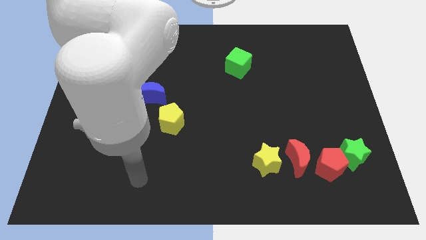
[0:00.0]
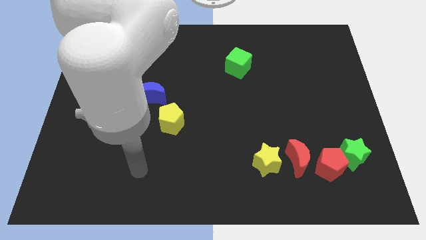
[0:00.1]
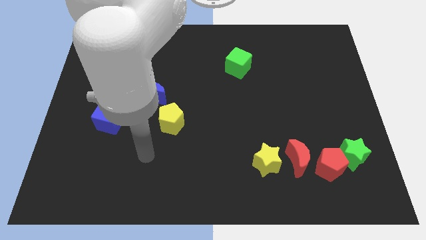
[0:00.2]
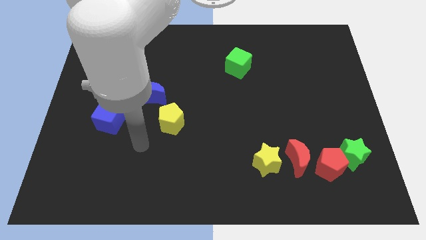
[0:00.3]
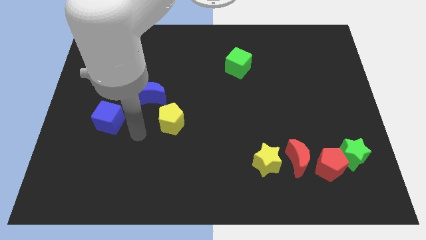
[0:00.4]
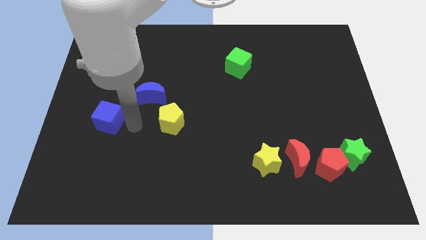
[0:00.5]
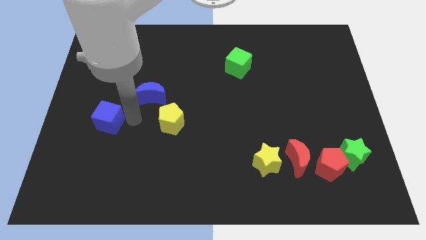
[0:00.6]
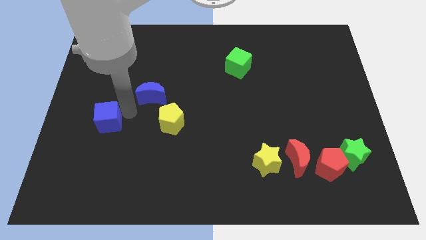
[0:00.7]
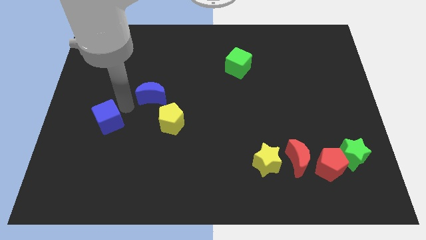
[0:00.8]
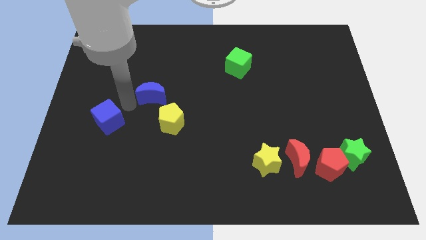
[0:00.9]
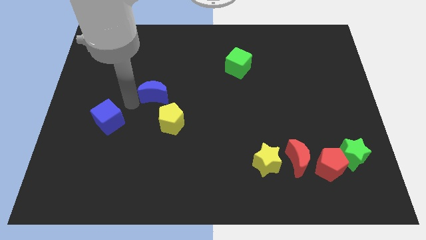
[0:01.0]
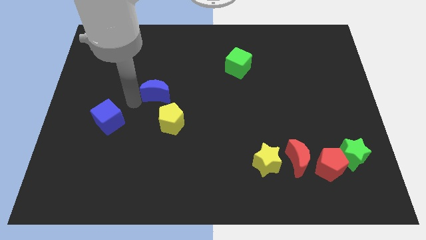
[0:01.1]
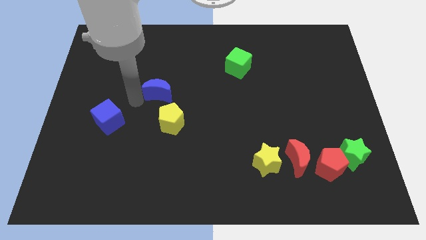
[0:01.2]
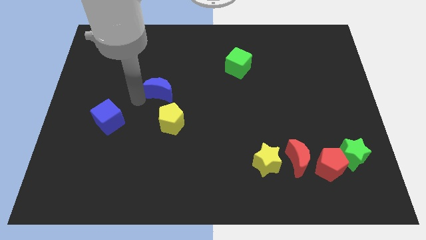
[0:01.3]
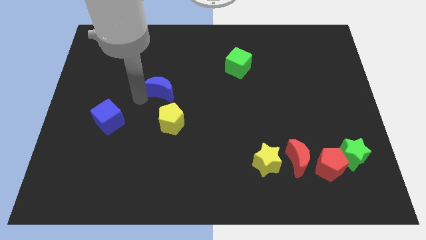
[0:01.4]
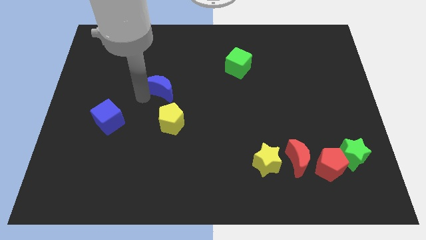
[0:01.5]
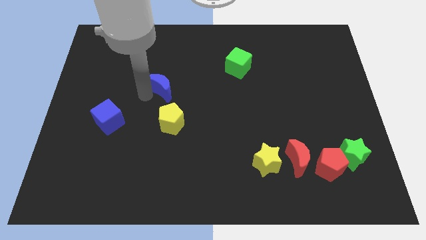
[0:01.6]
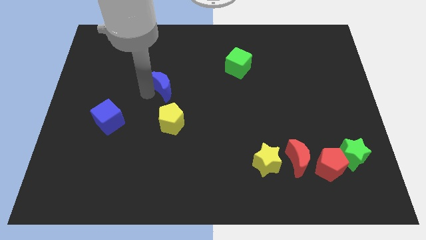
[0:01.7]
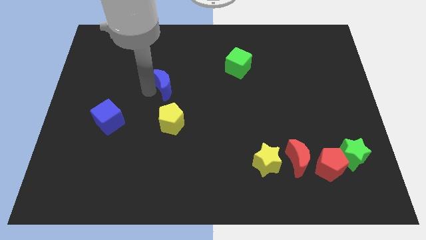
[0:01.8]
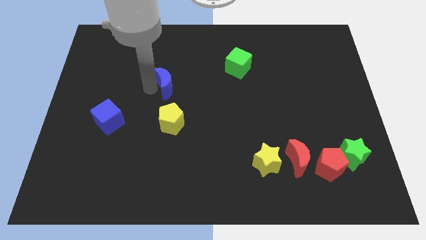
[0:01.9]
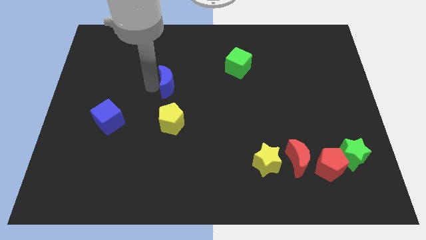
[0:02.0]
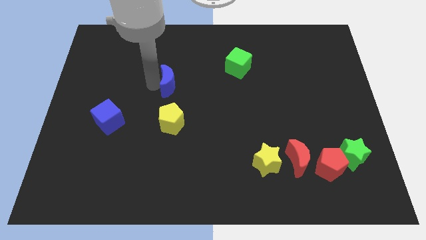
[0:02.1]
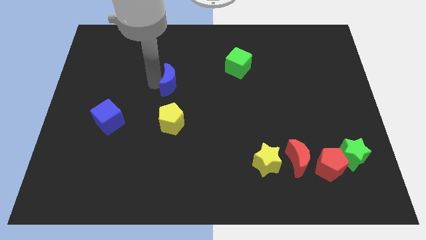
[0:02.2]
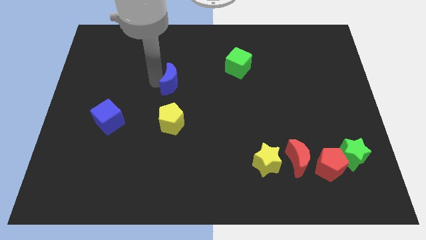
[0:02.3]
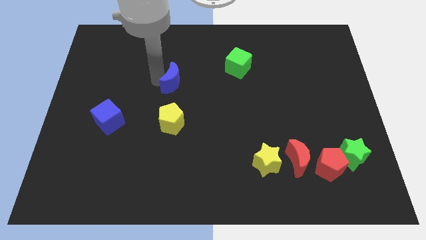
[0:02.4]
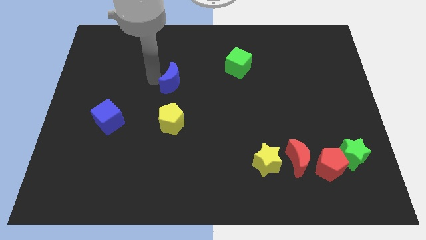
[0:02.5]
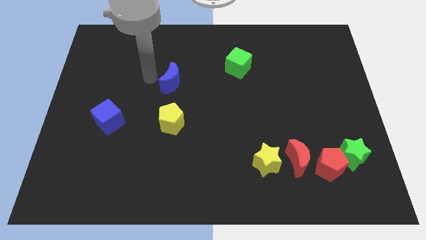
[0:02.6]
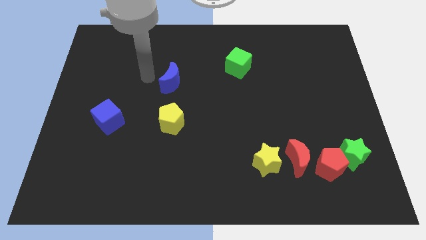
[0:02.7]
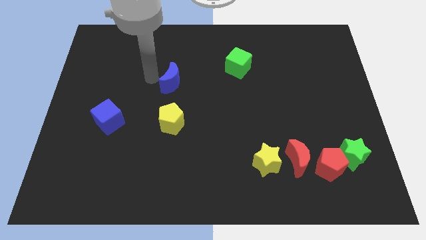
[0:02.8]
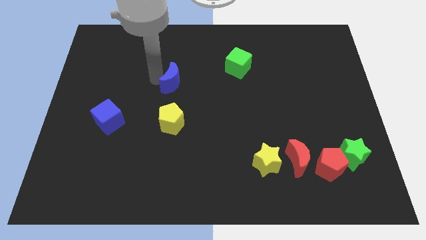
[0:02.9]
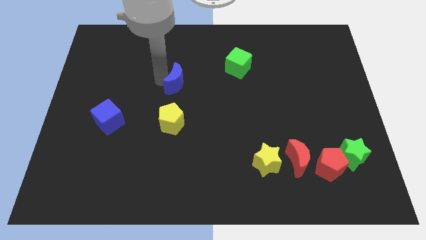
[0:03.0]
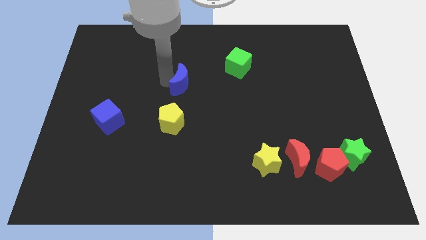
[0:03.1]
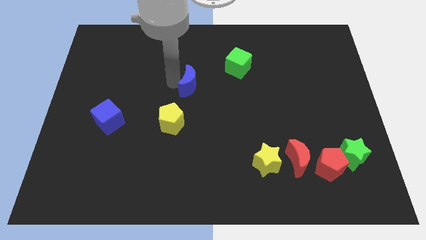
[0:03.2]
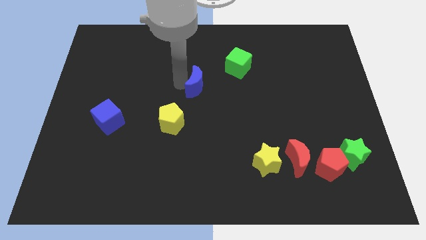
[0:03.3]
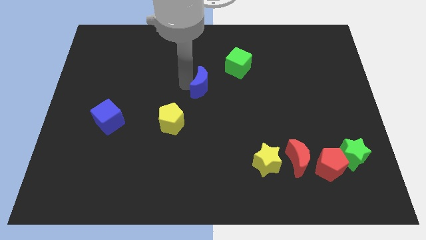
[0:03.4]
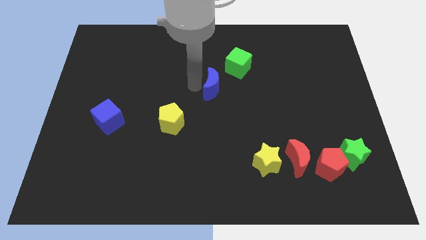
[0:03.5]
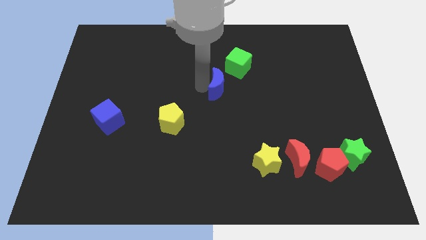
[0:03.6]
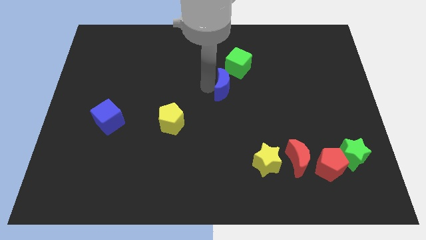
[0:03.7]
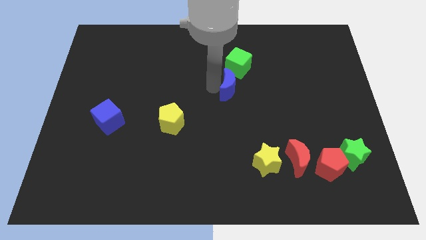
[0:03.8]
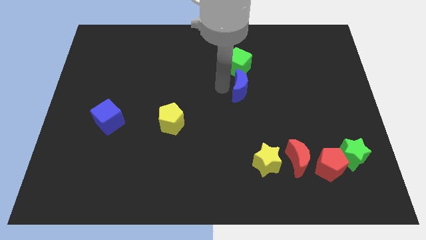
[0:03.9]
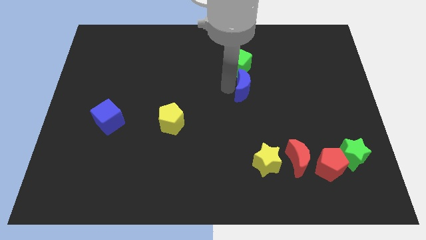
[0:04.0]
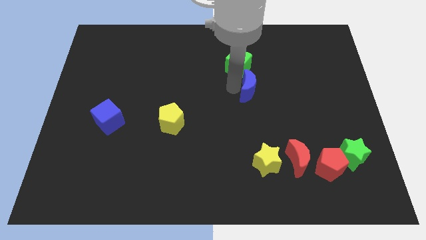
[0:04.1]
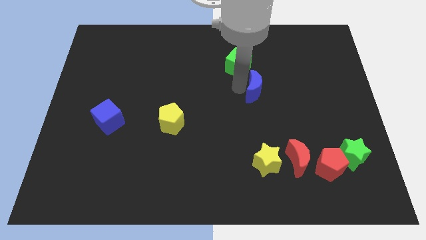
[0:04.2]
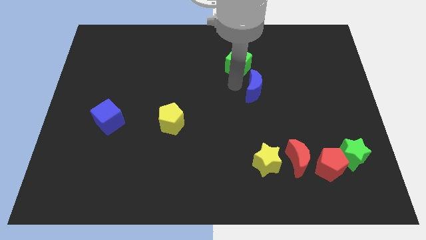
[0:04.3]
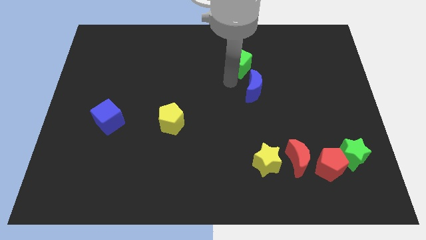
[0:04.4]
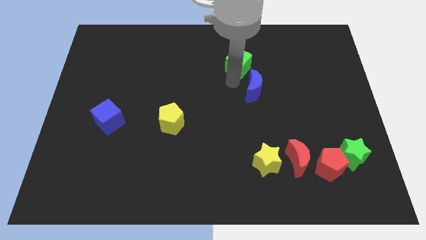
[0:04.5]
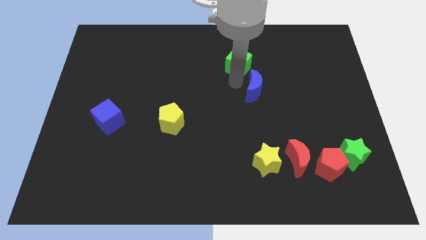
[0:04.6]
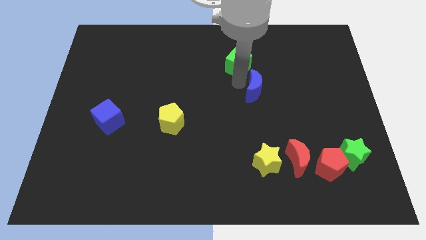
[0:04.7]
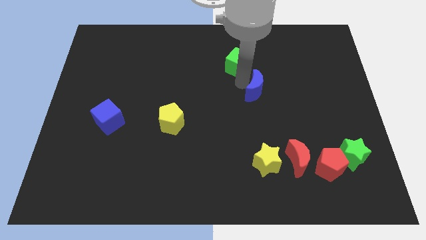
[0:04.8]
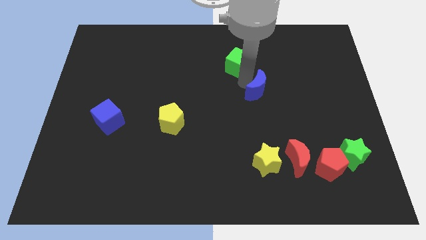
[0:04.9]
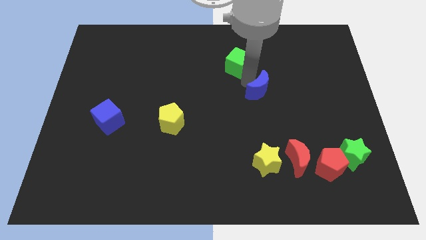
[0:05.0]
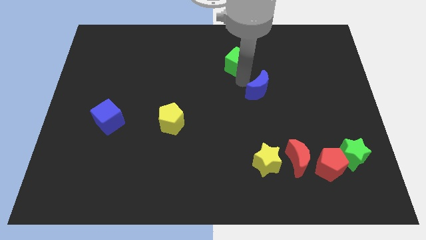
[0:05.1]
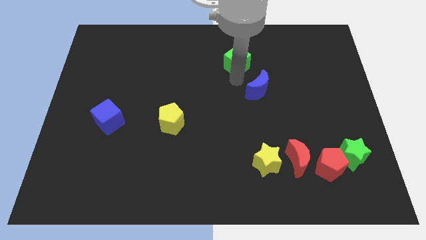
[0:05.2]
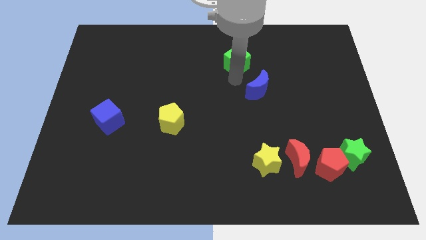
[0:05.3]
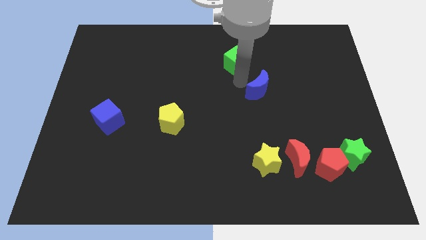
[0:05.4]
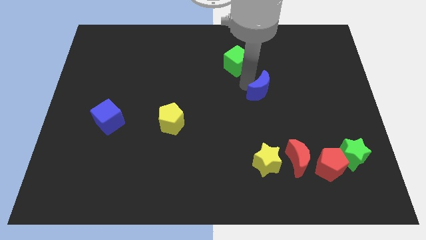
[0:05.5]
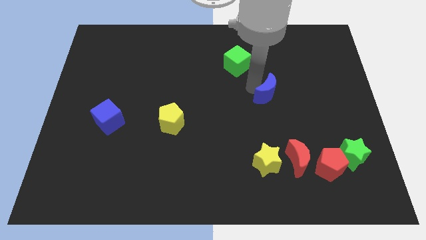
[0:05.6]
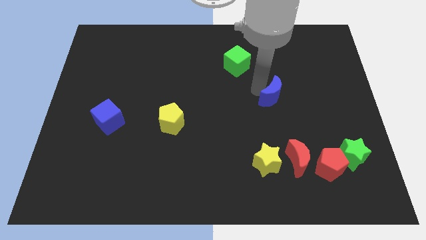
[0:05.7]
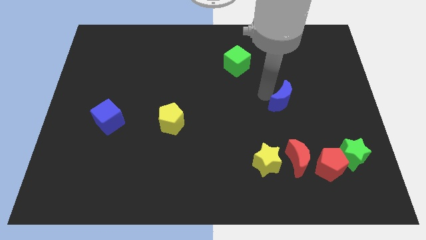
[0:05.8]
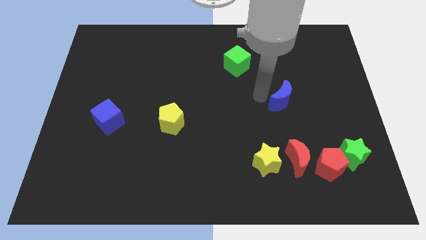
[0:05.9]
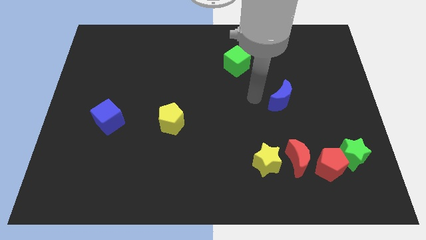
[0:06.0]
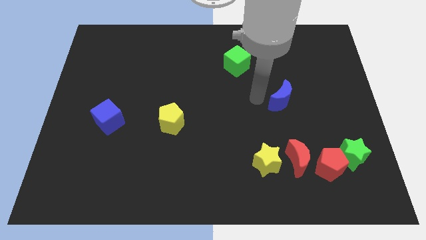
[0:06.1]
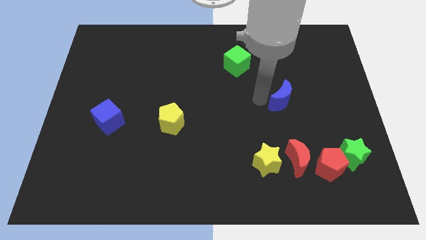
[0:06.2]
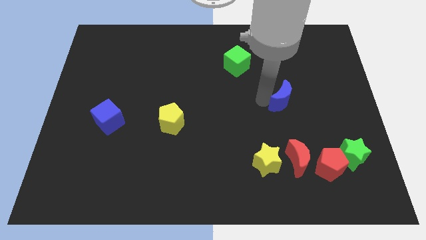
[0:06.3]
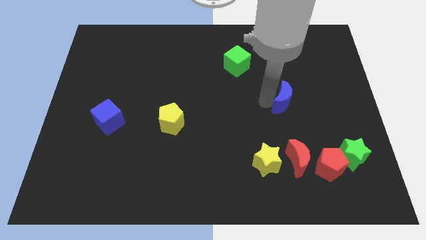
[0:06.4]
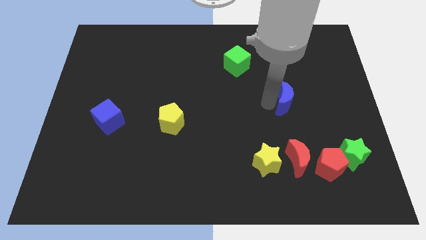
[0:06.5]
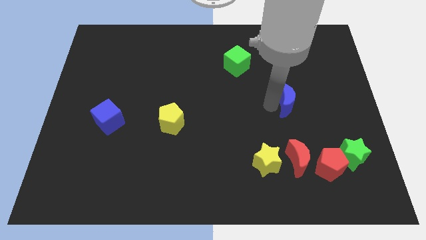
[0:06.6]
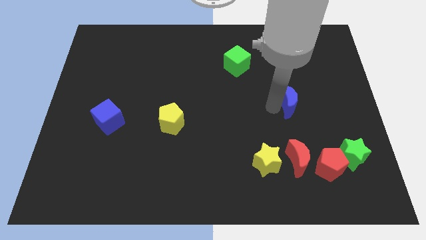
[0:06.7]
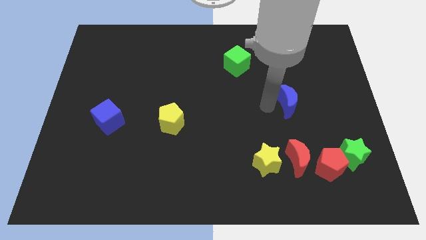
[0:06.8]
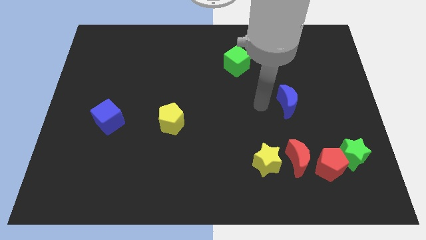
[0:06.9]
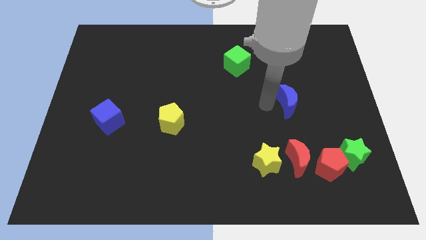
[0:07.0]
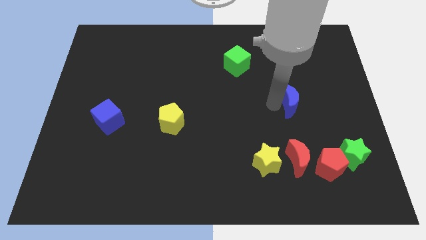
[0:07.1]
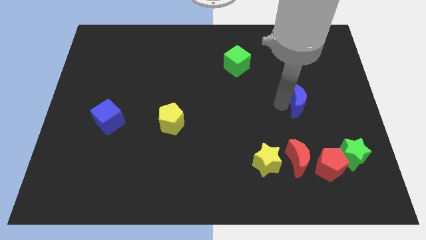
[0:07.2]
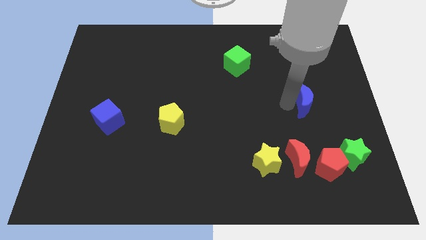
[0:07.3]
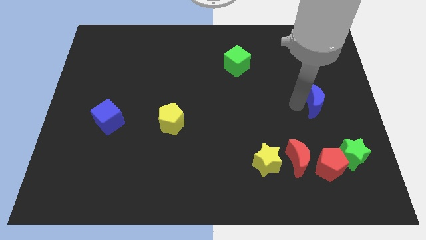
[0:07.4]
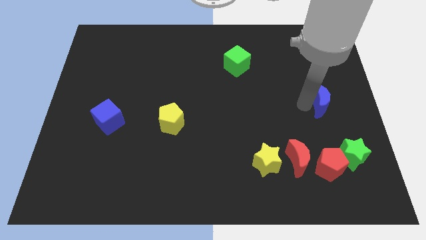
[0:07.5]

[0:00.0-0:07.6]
put the blue moon to the right side
